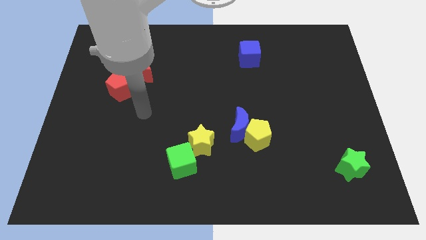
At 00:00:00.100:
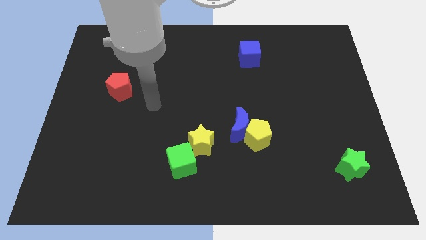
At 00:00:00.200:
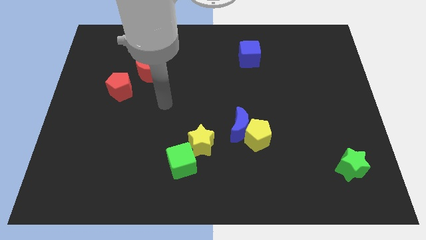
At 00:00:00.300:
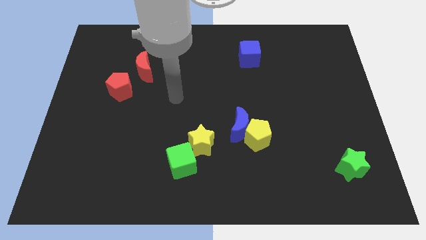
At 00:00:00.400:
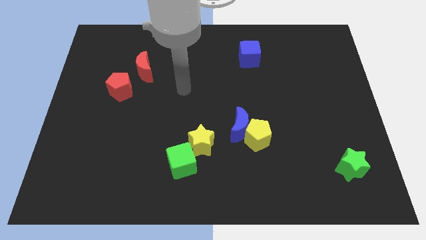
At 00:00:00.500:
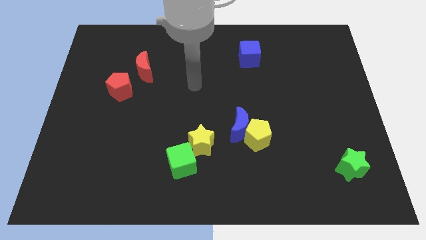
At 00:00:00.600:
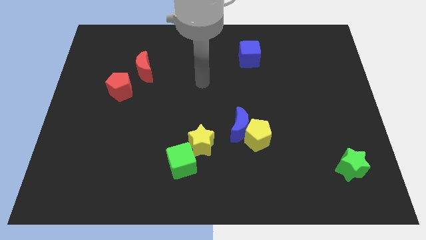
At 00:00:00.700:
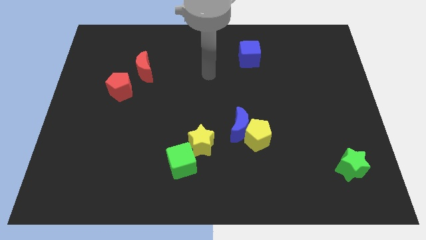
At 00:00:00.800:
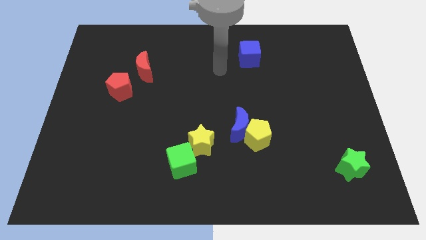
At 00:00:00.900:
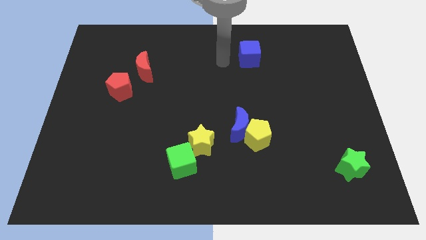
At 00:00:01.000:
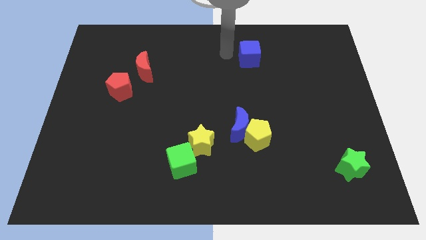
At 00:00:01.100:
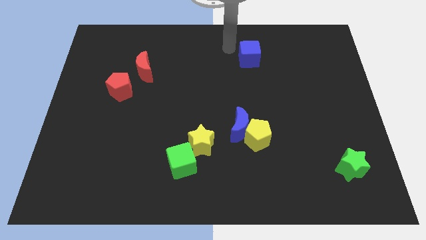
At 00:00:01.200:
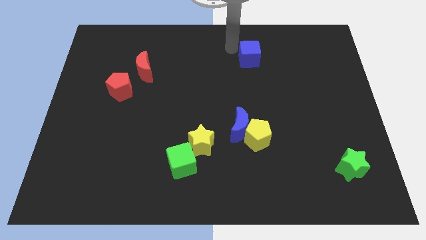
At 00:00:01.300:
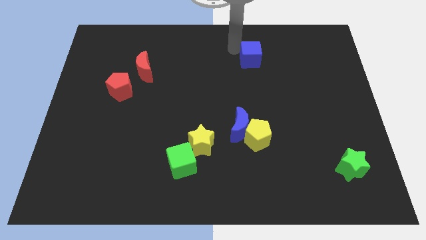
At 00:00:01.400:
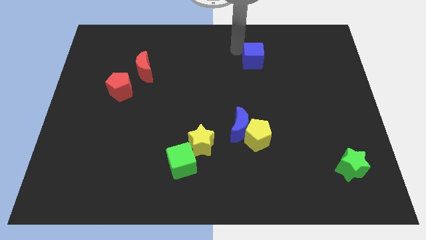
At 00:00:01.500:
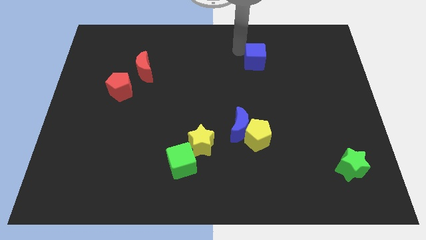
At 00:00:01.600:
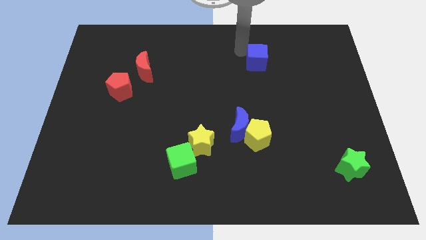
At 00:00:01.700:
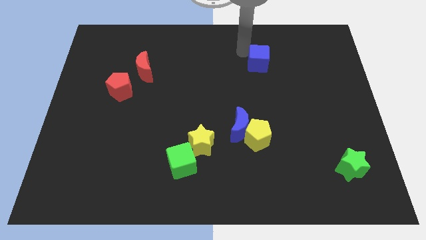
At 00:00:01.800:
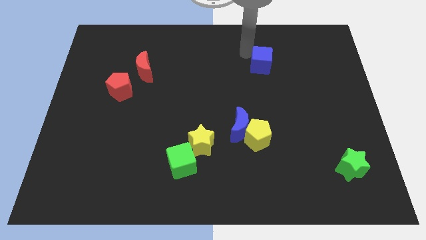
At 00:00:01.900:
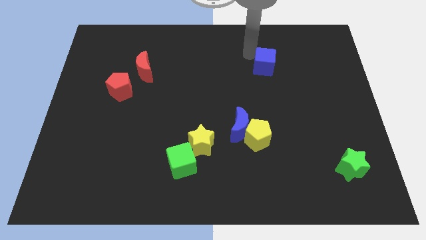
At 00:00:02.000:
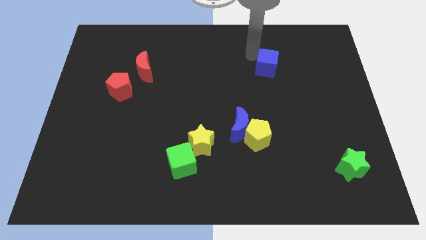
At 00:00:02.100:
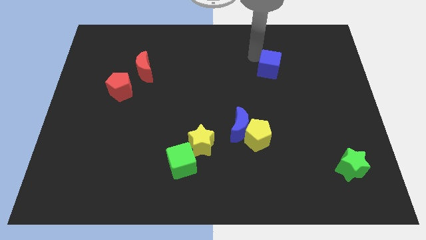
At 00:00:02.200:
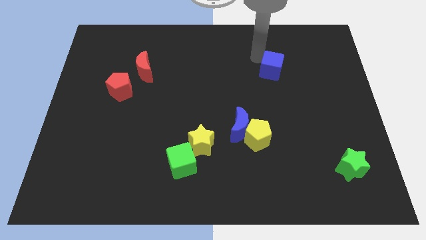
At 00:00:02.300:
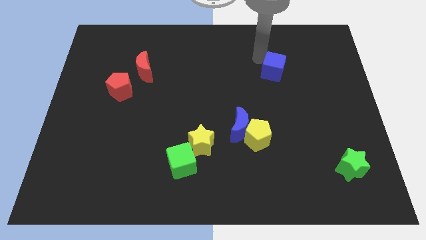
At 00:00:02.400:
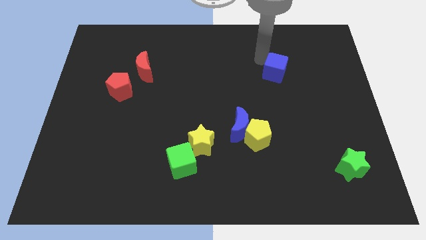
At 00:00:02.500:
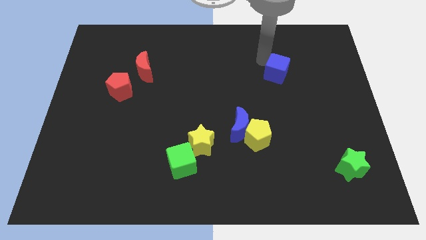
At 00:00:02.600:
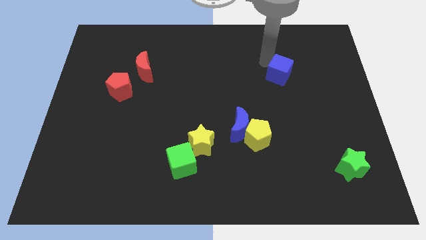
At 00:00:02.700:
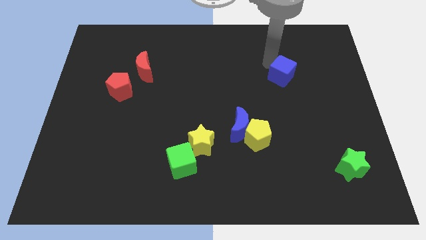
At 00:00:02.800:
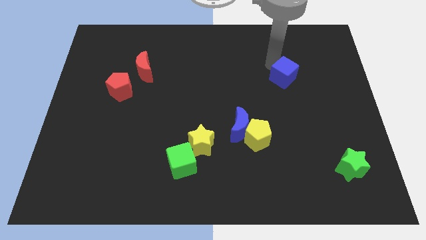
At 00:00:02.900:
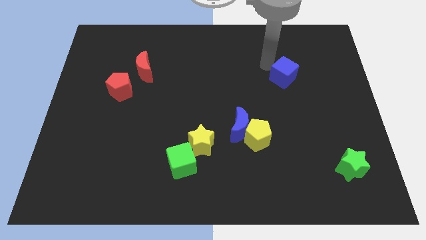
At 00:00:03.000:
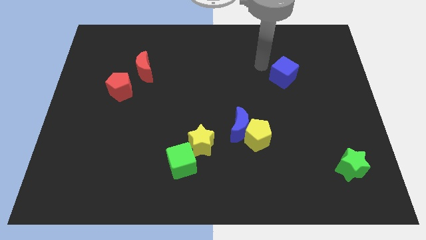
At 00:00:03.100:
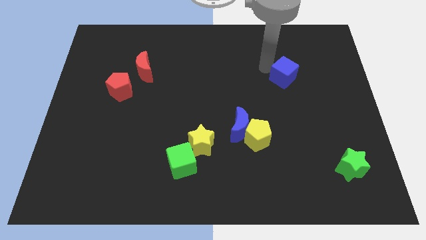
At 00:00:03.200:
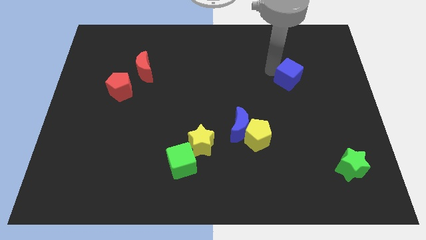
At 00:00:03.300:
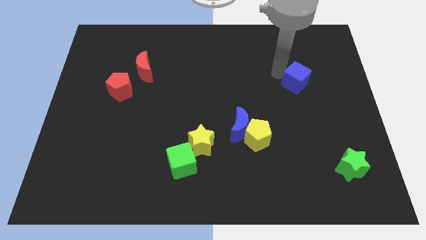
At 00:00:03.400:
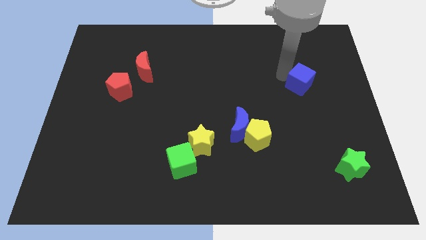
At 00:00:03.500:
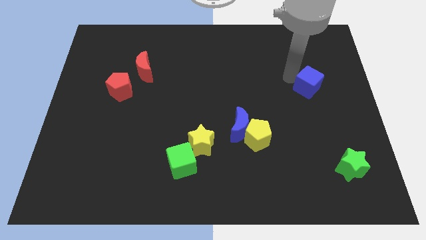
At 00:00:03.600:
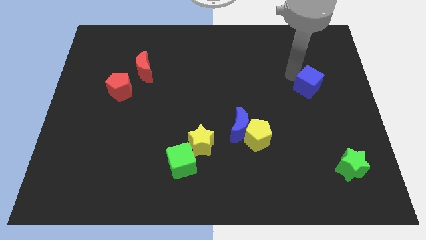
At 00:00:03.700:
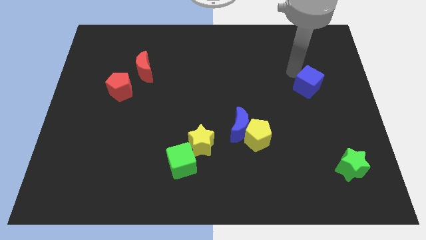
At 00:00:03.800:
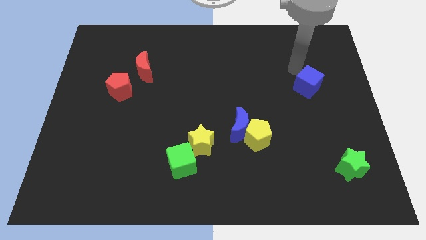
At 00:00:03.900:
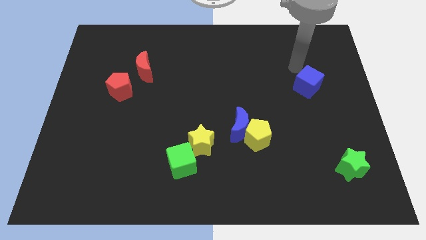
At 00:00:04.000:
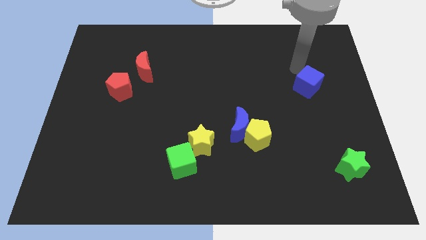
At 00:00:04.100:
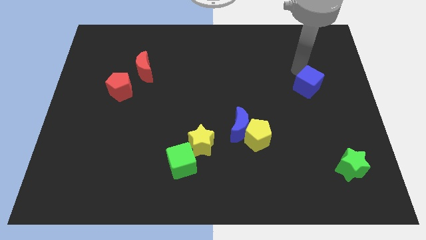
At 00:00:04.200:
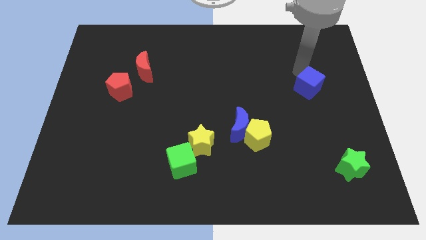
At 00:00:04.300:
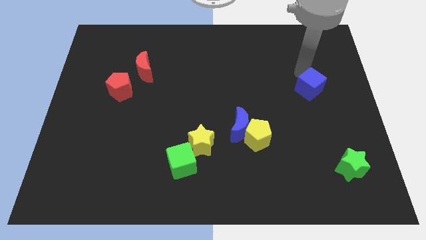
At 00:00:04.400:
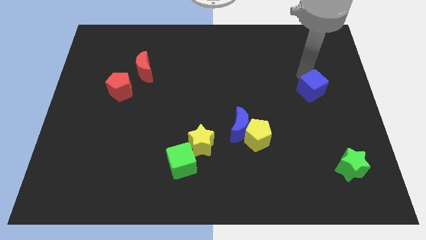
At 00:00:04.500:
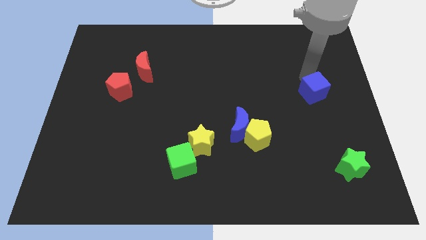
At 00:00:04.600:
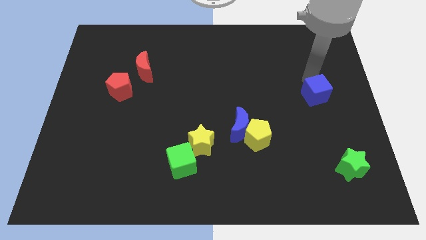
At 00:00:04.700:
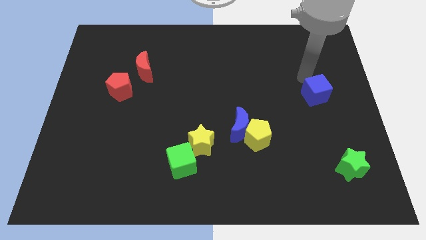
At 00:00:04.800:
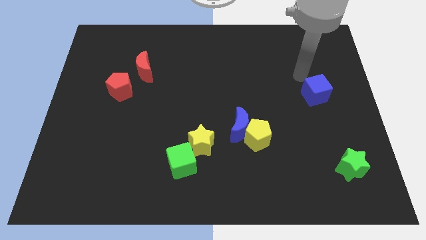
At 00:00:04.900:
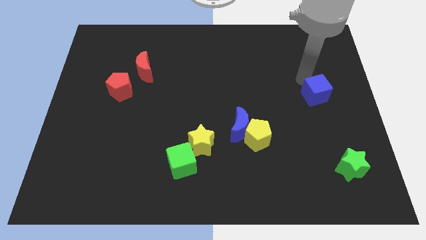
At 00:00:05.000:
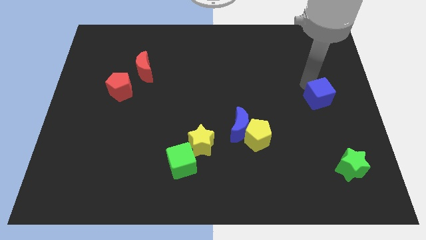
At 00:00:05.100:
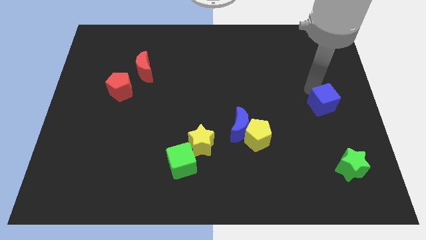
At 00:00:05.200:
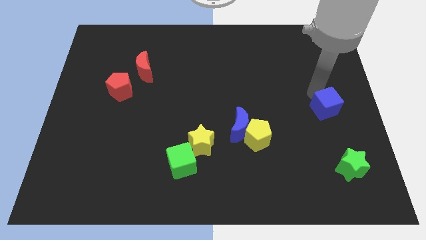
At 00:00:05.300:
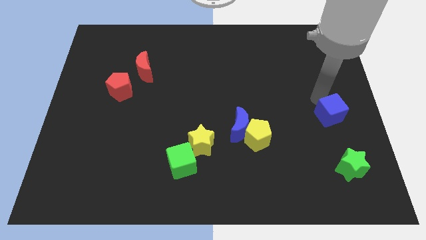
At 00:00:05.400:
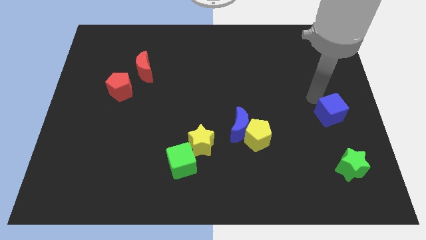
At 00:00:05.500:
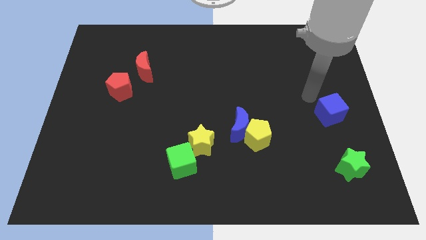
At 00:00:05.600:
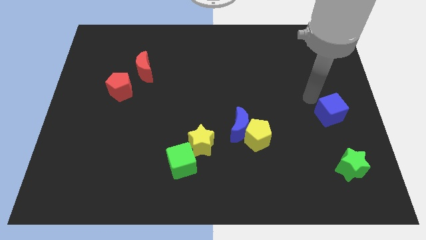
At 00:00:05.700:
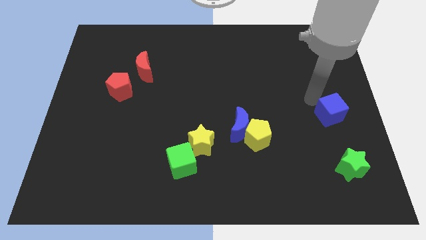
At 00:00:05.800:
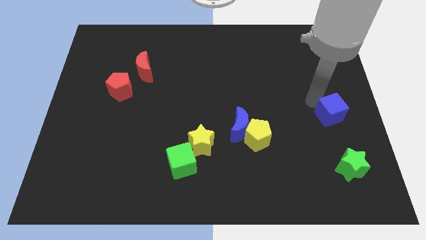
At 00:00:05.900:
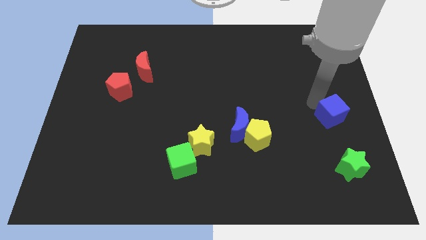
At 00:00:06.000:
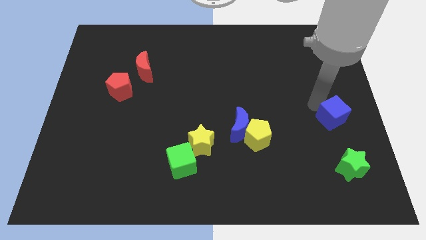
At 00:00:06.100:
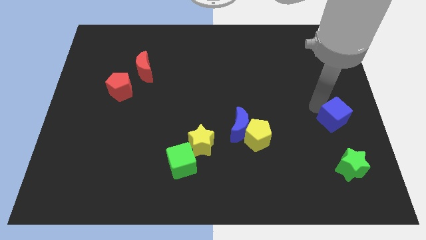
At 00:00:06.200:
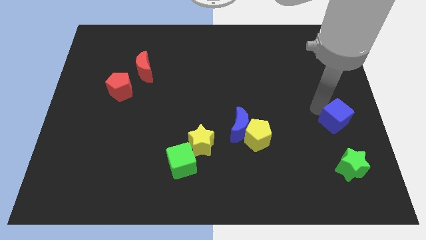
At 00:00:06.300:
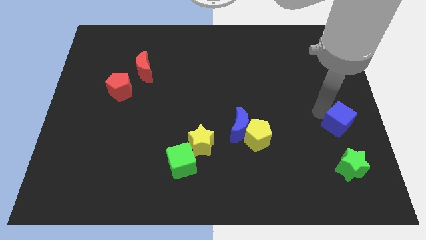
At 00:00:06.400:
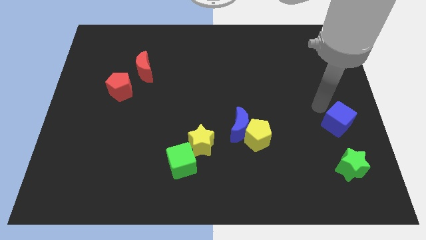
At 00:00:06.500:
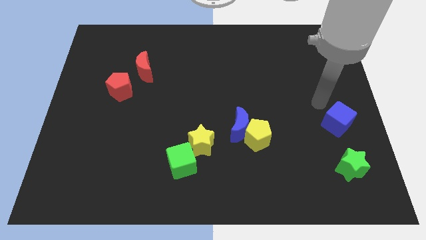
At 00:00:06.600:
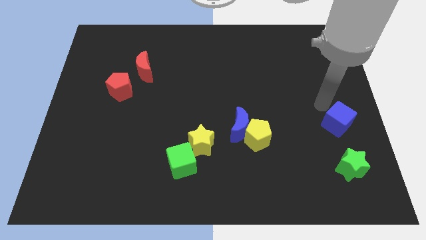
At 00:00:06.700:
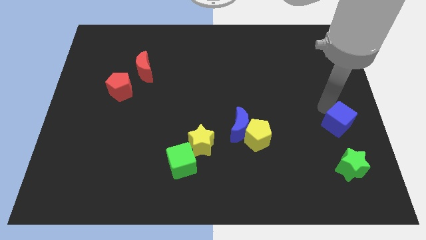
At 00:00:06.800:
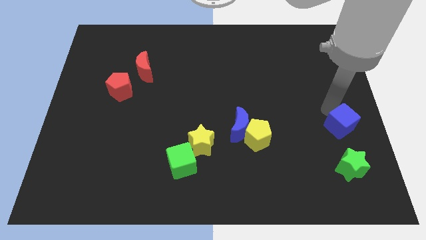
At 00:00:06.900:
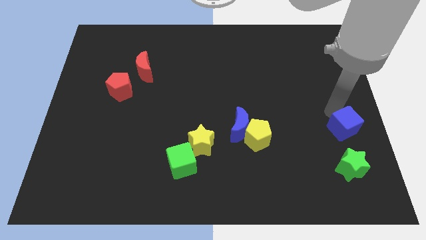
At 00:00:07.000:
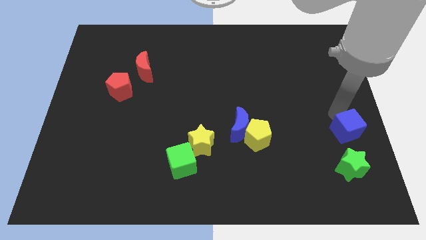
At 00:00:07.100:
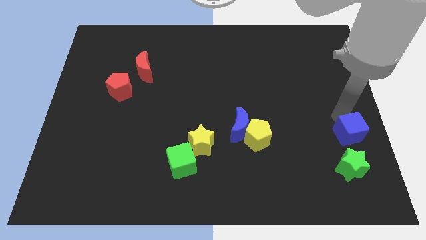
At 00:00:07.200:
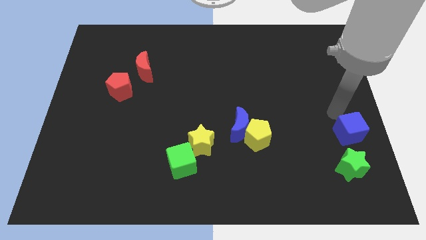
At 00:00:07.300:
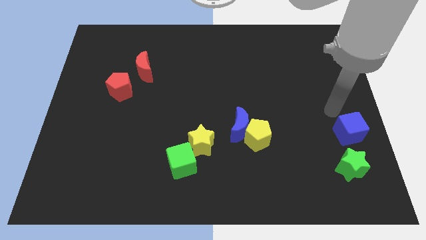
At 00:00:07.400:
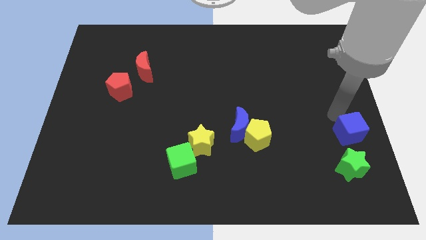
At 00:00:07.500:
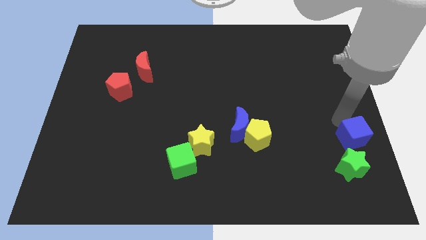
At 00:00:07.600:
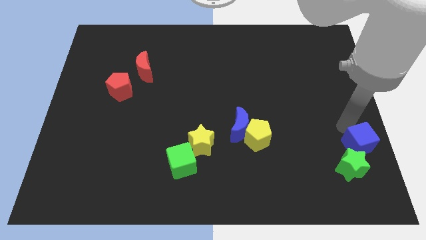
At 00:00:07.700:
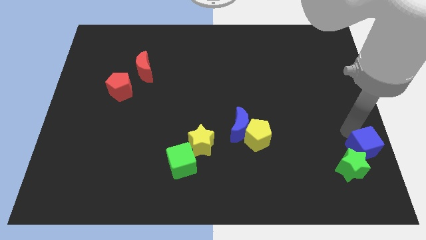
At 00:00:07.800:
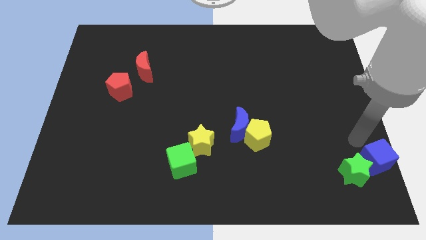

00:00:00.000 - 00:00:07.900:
move the blue cube to the bottom right corner
